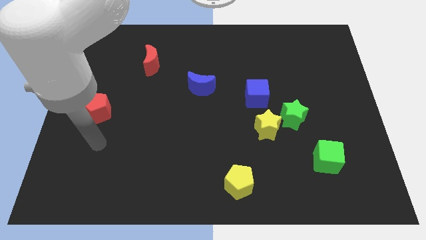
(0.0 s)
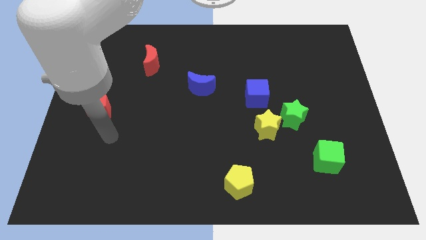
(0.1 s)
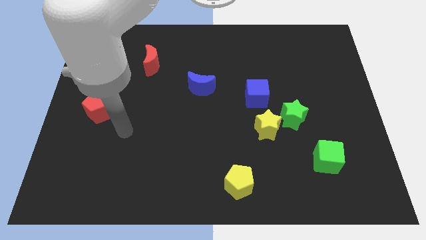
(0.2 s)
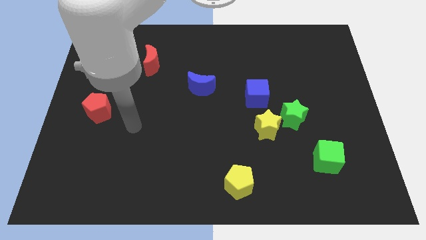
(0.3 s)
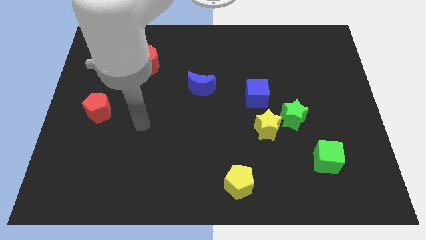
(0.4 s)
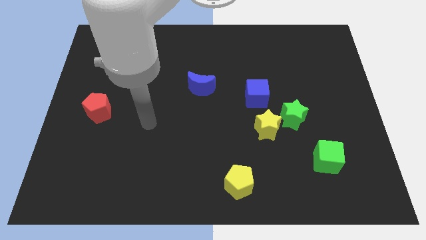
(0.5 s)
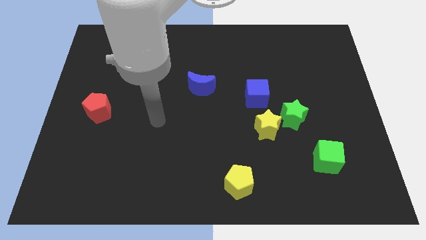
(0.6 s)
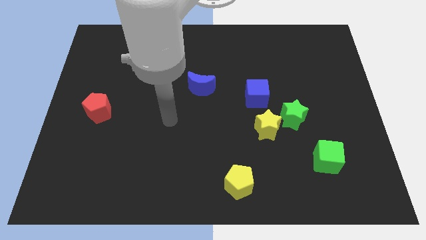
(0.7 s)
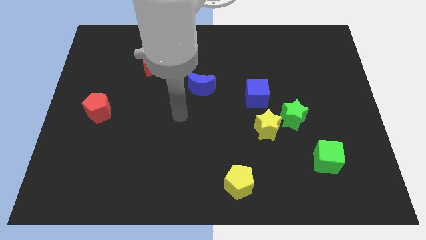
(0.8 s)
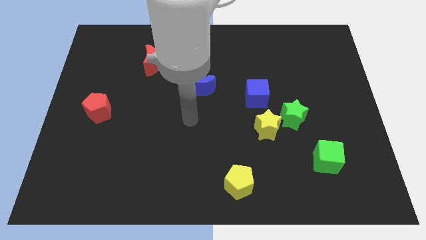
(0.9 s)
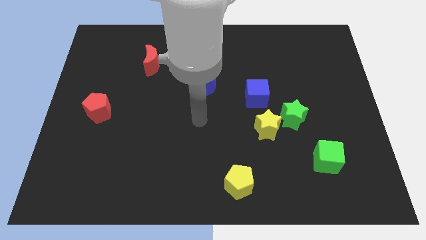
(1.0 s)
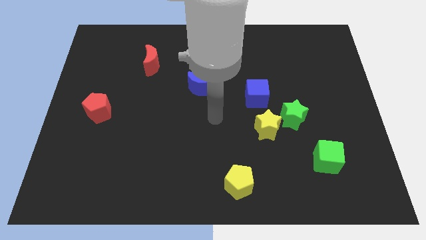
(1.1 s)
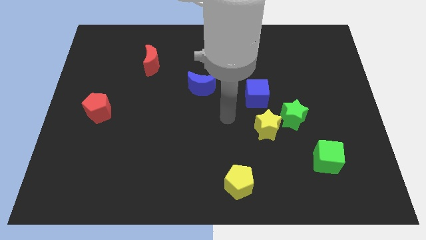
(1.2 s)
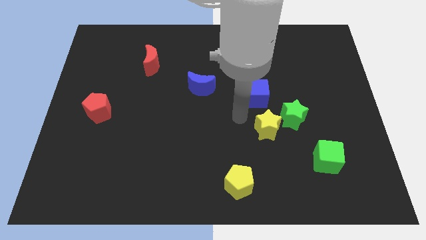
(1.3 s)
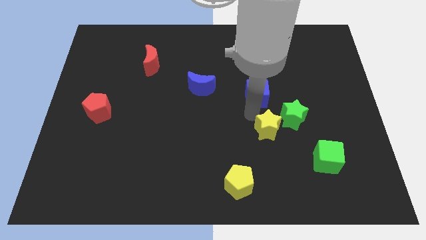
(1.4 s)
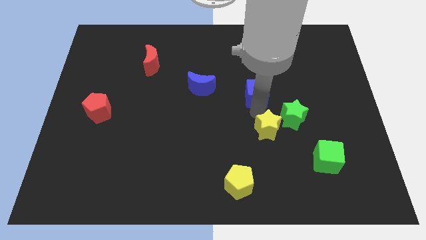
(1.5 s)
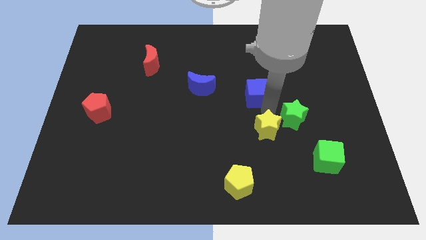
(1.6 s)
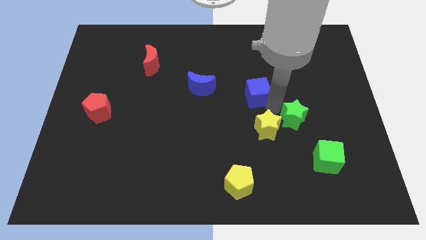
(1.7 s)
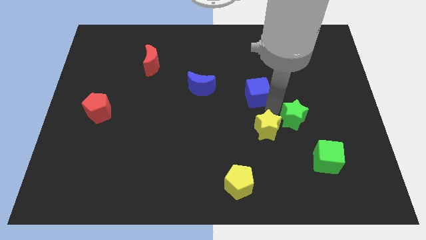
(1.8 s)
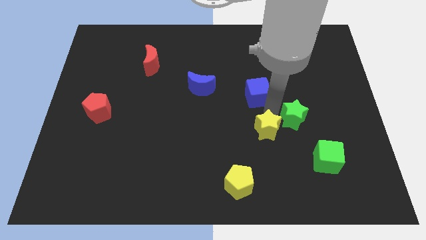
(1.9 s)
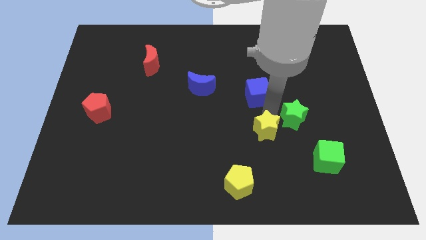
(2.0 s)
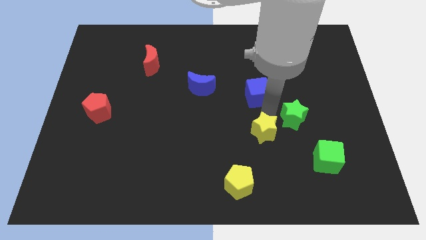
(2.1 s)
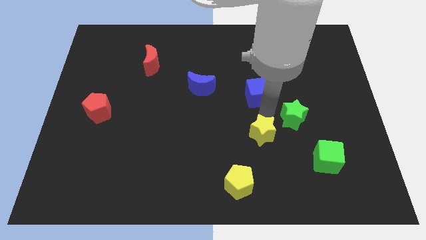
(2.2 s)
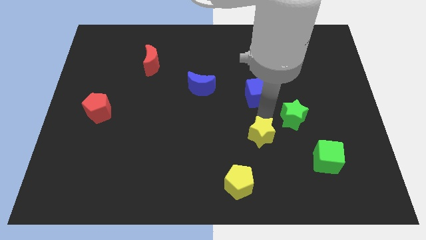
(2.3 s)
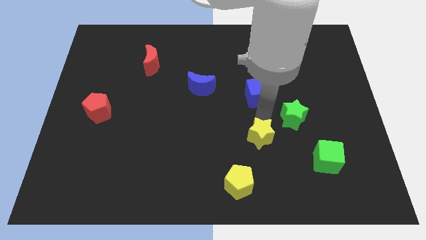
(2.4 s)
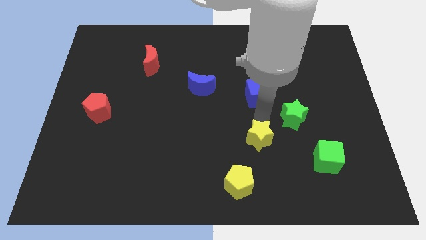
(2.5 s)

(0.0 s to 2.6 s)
separate the yellow star from the green star and blue cube

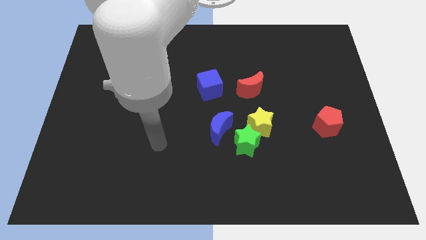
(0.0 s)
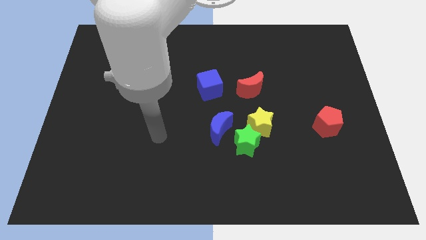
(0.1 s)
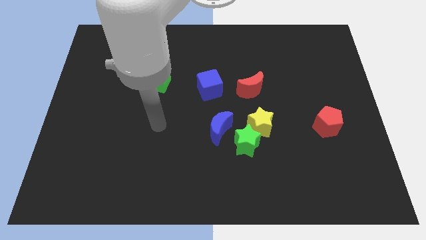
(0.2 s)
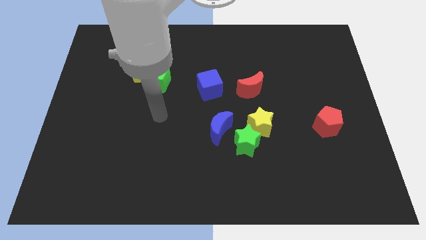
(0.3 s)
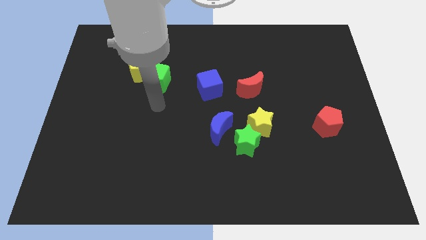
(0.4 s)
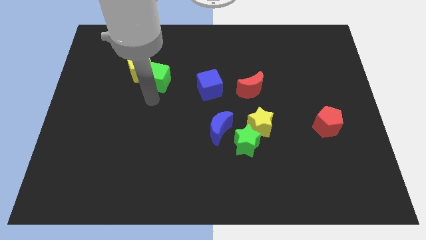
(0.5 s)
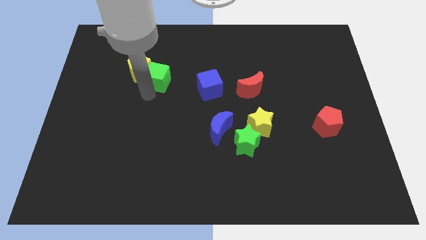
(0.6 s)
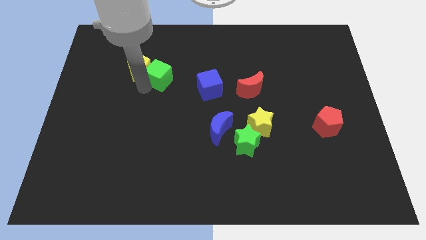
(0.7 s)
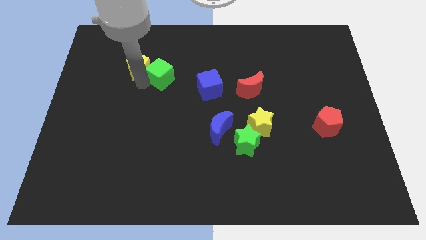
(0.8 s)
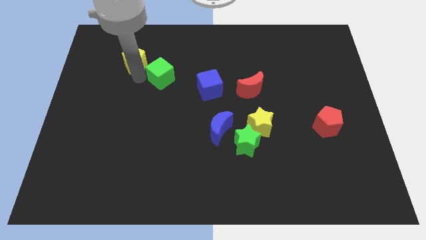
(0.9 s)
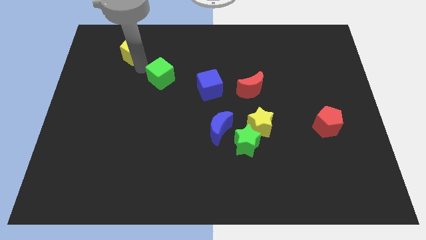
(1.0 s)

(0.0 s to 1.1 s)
pull the green cube apart from the yellow pentagon

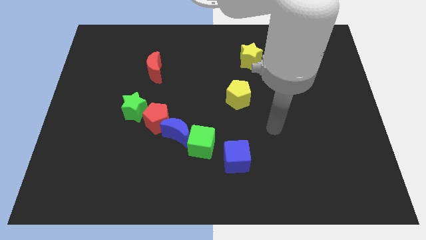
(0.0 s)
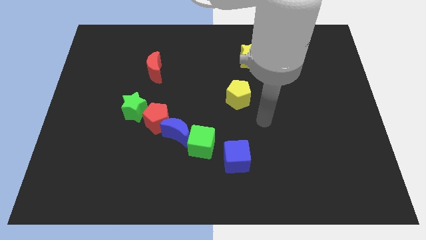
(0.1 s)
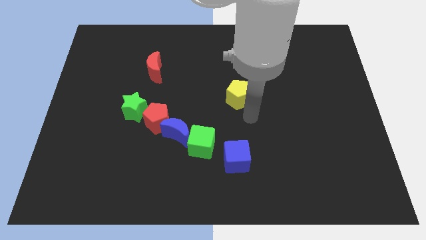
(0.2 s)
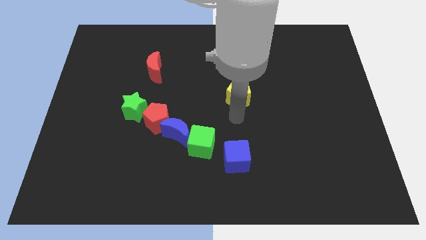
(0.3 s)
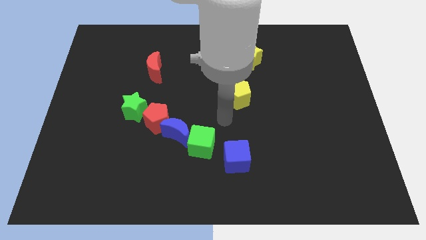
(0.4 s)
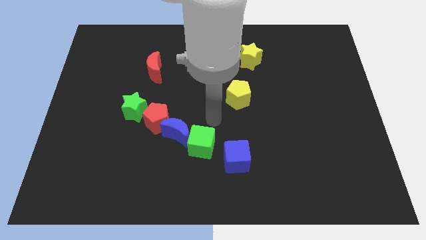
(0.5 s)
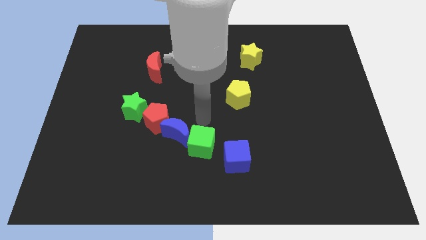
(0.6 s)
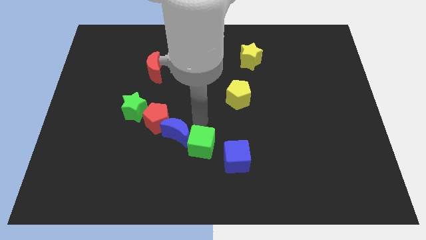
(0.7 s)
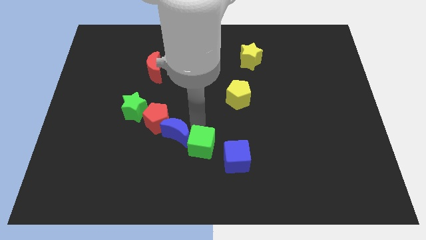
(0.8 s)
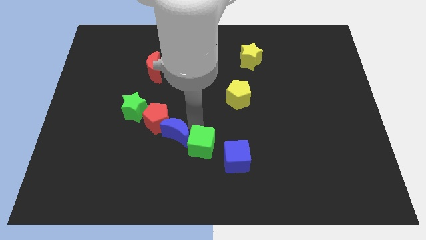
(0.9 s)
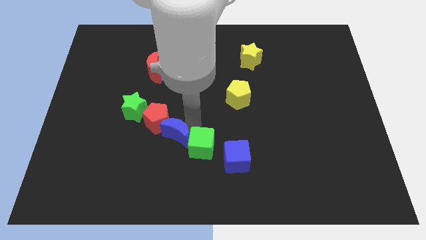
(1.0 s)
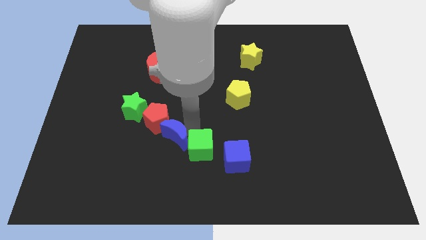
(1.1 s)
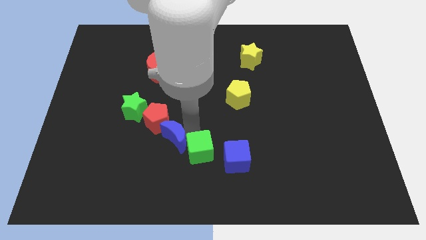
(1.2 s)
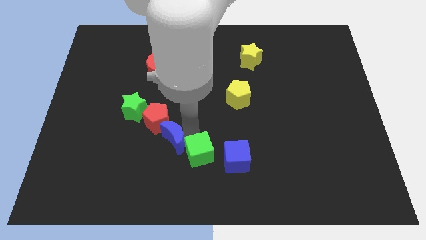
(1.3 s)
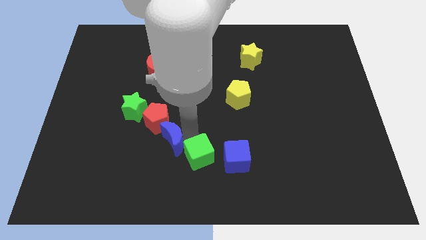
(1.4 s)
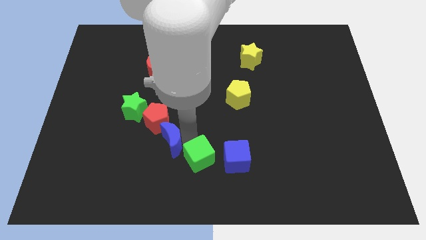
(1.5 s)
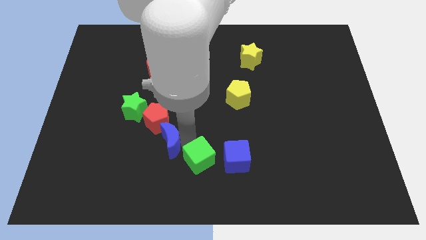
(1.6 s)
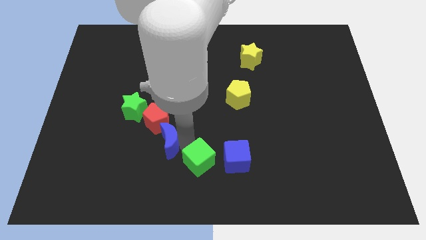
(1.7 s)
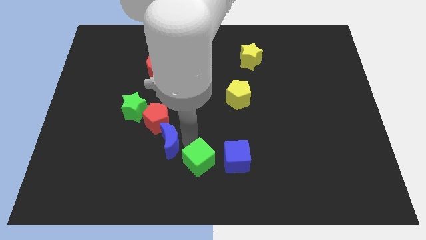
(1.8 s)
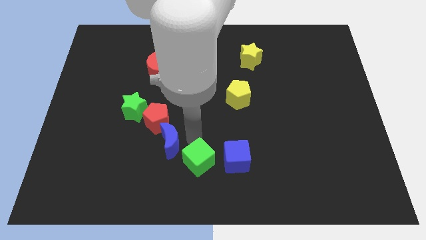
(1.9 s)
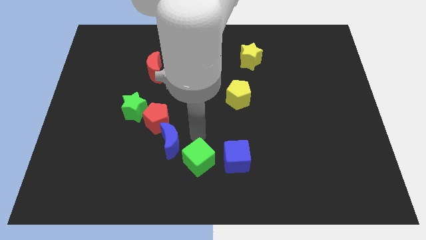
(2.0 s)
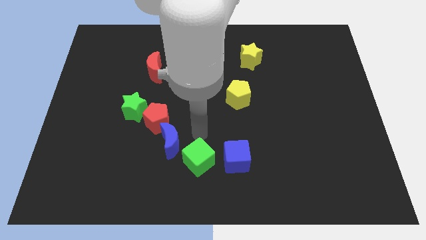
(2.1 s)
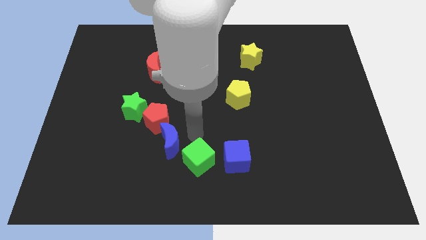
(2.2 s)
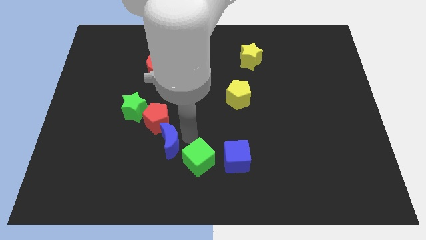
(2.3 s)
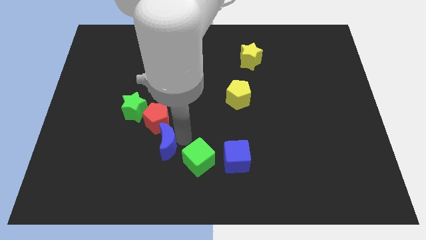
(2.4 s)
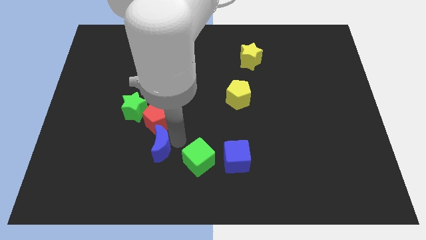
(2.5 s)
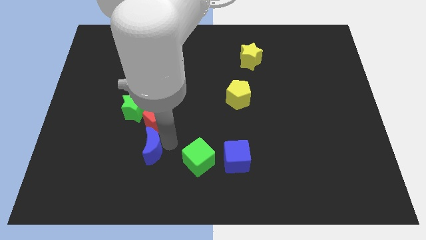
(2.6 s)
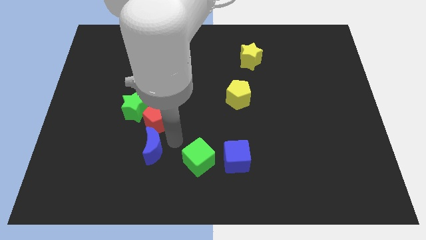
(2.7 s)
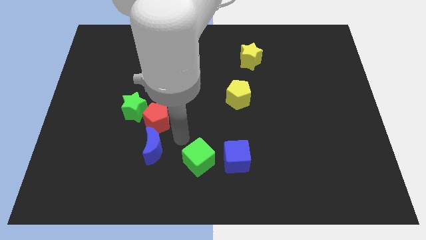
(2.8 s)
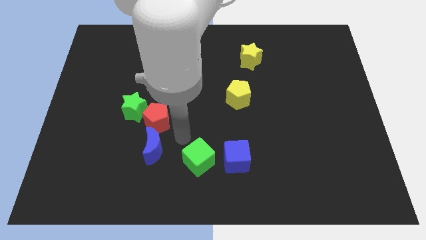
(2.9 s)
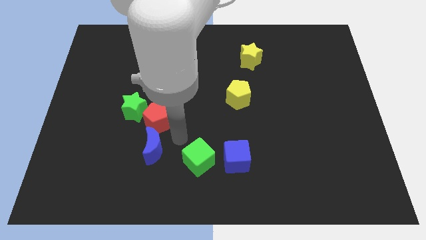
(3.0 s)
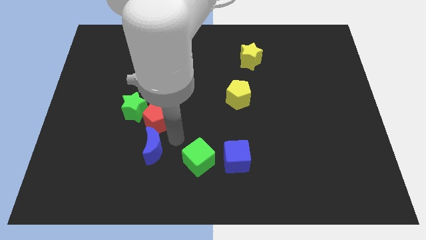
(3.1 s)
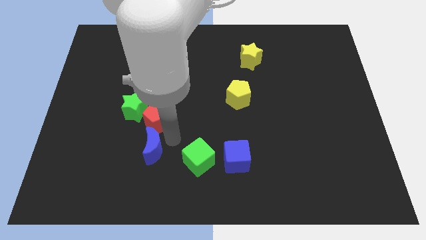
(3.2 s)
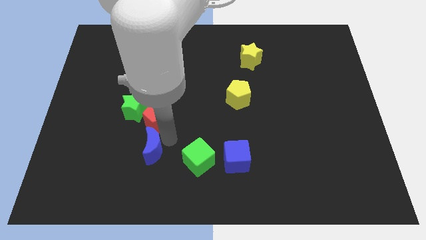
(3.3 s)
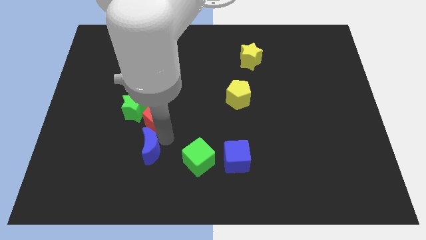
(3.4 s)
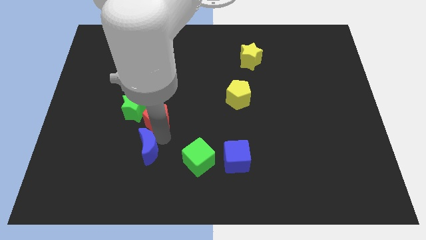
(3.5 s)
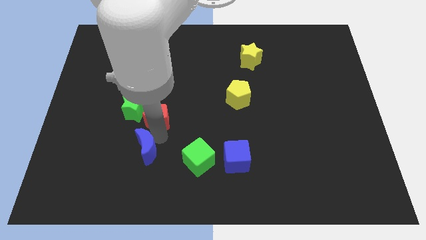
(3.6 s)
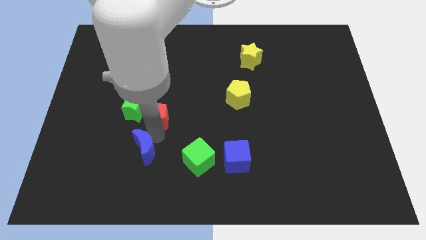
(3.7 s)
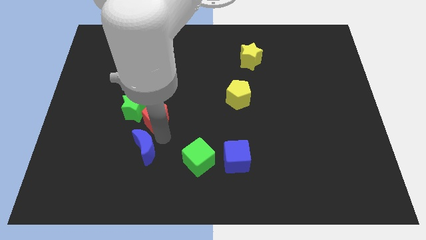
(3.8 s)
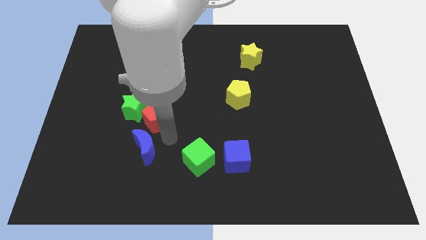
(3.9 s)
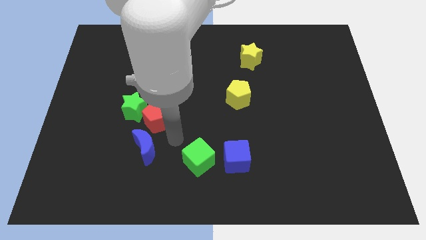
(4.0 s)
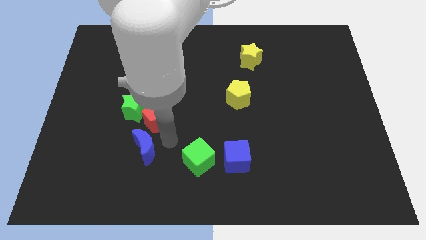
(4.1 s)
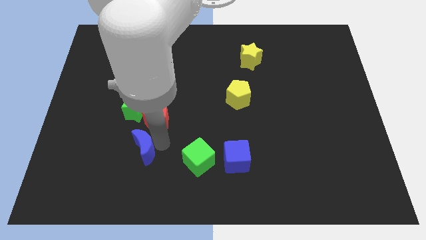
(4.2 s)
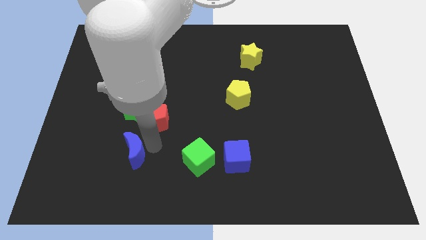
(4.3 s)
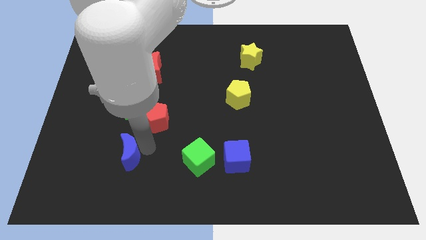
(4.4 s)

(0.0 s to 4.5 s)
move the blue moon away from the red pentagon and green cube

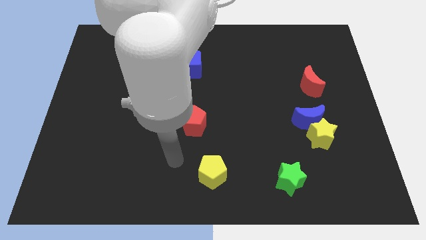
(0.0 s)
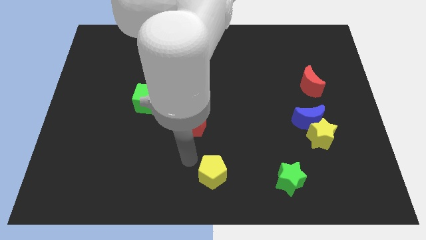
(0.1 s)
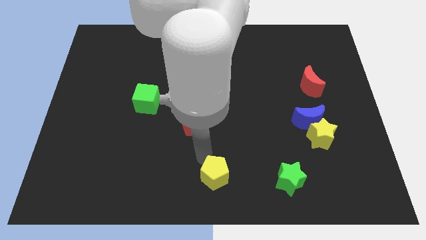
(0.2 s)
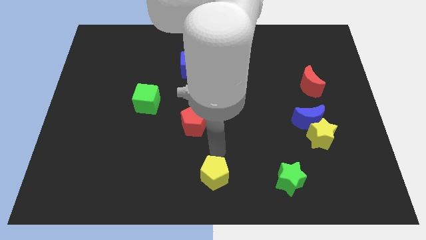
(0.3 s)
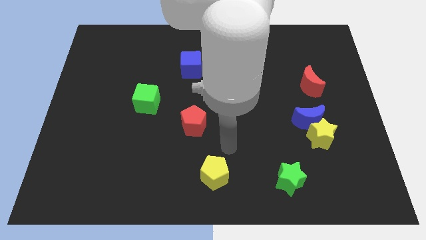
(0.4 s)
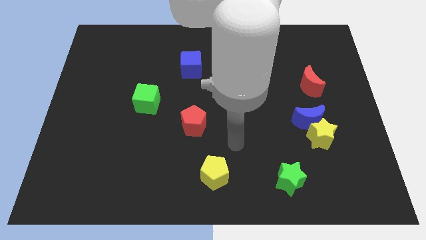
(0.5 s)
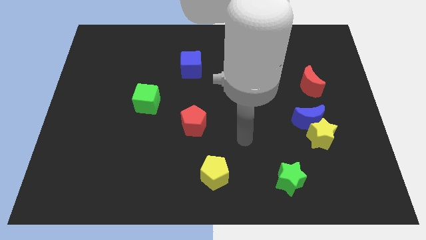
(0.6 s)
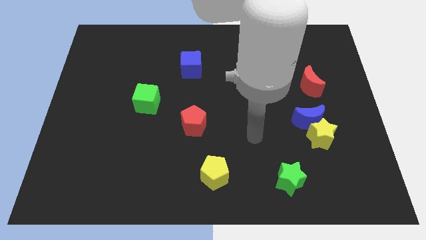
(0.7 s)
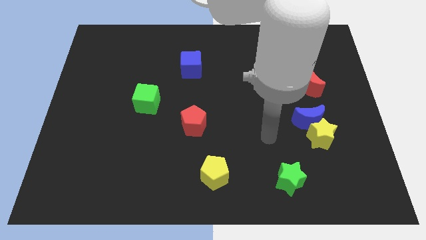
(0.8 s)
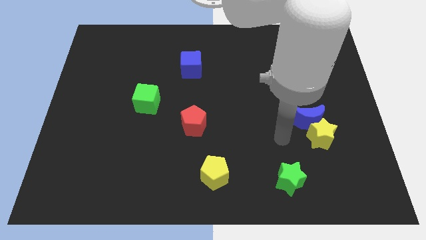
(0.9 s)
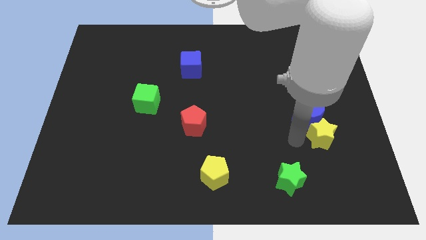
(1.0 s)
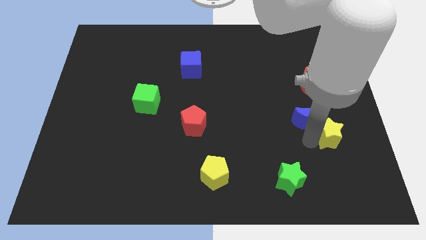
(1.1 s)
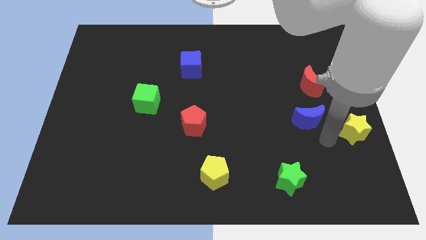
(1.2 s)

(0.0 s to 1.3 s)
move the blue moon away from the yellow star
